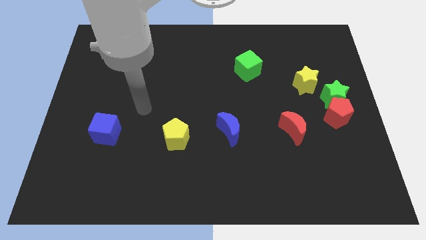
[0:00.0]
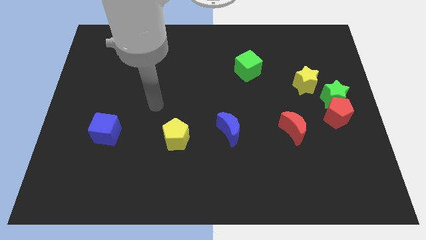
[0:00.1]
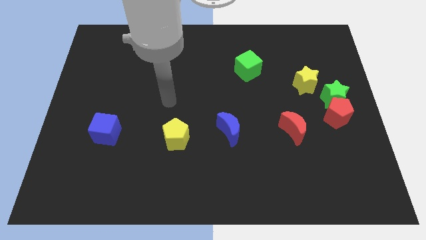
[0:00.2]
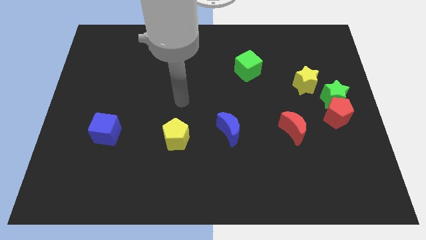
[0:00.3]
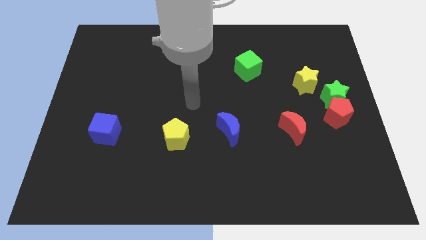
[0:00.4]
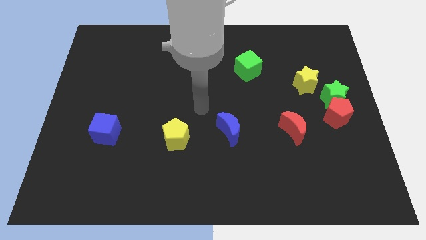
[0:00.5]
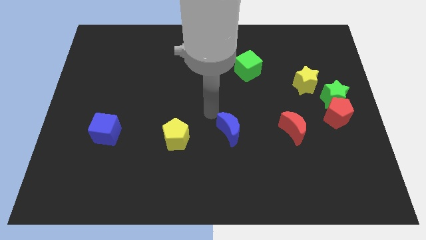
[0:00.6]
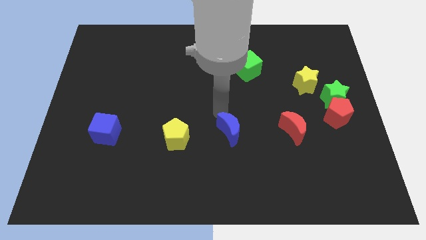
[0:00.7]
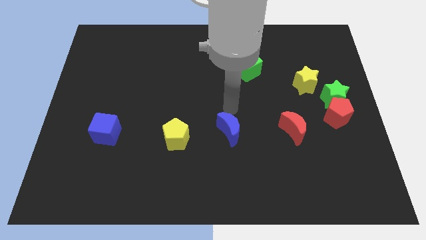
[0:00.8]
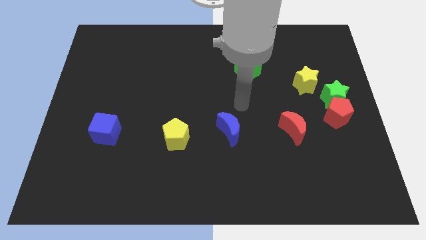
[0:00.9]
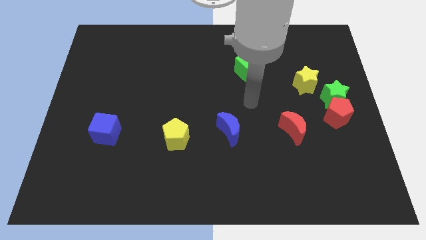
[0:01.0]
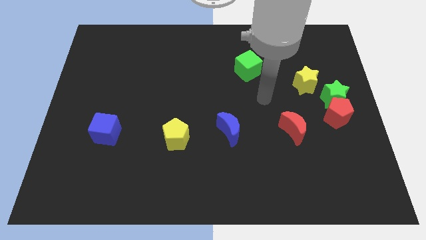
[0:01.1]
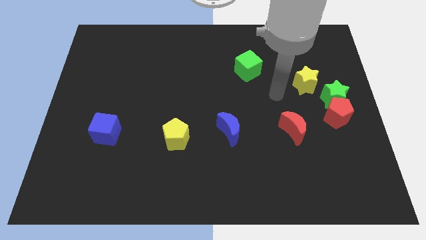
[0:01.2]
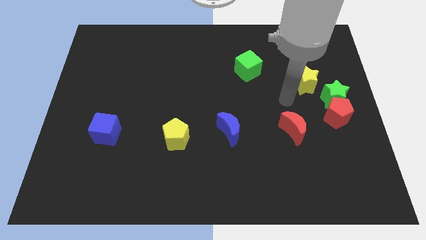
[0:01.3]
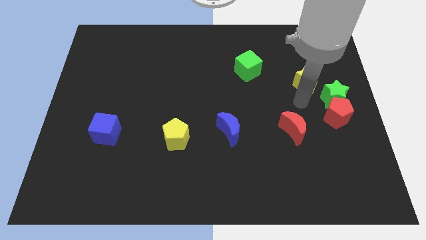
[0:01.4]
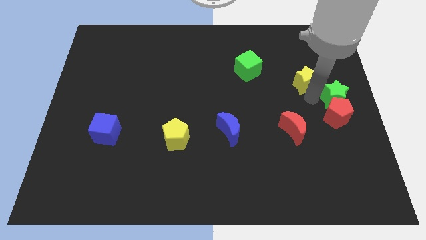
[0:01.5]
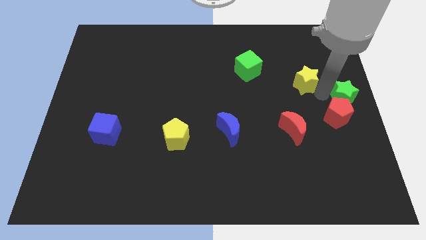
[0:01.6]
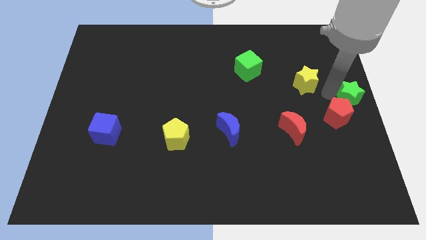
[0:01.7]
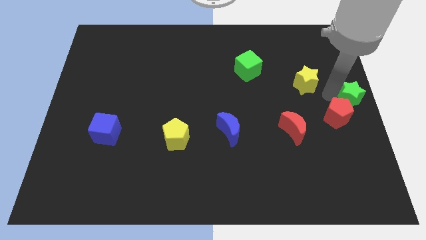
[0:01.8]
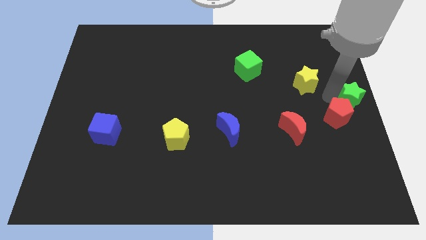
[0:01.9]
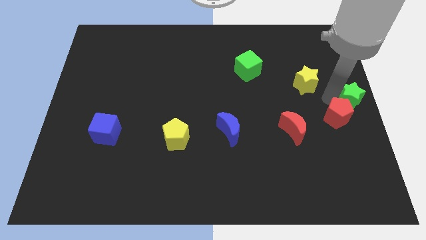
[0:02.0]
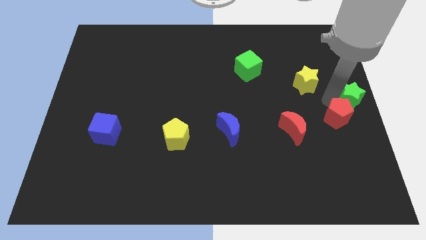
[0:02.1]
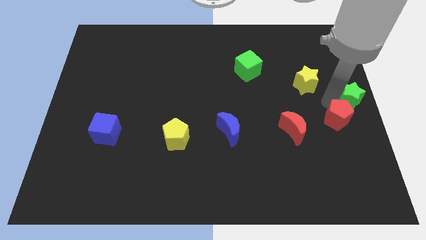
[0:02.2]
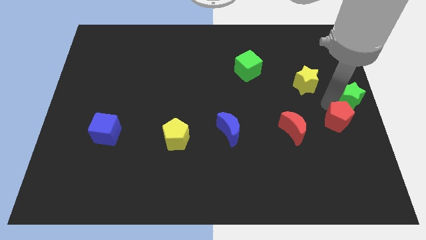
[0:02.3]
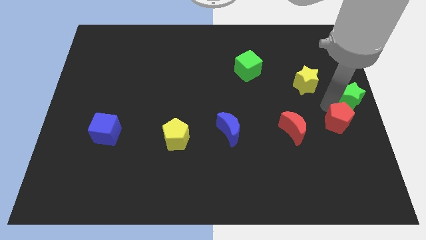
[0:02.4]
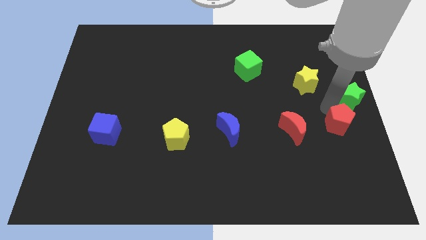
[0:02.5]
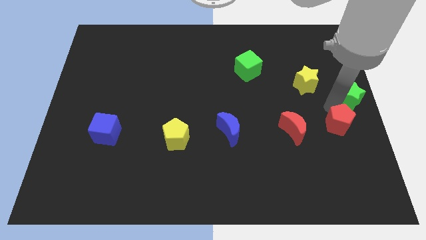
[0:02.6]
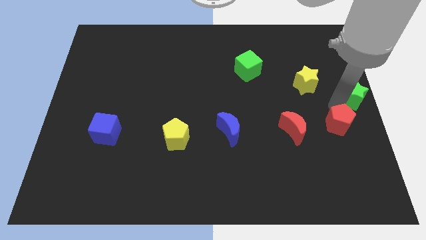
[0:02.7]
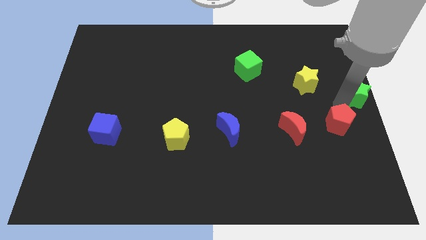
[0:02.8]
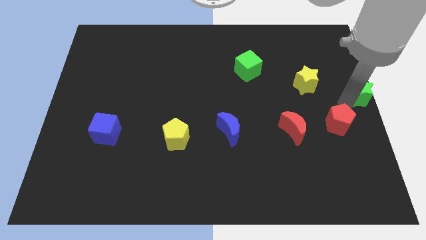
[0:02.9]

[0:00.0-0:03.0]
separate the red pentagon from the green star

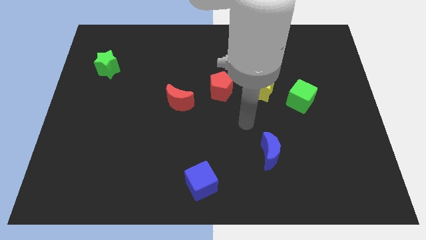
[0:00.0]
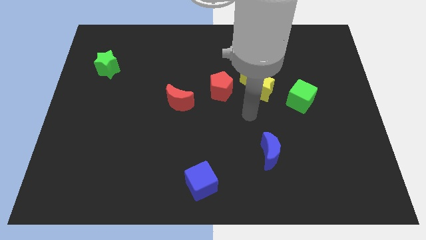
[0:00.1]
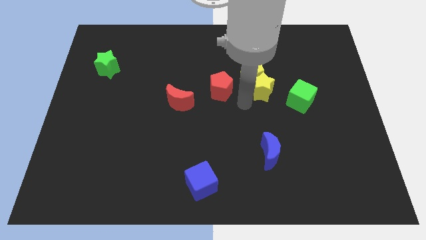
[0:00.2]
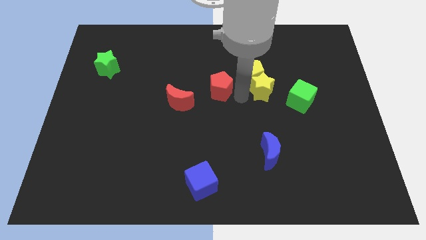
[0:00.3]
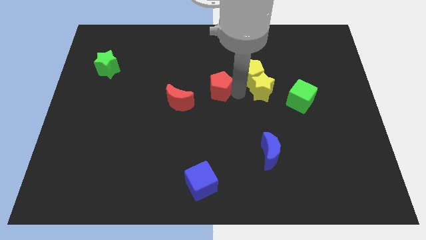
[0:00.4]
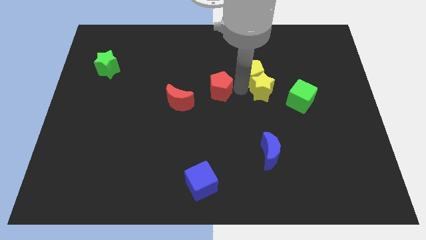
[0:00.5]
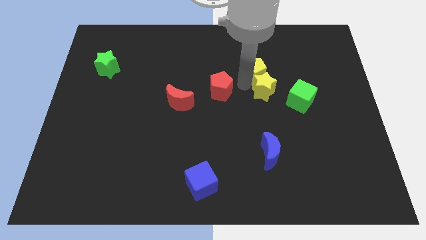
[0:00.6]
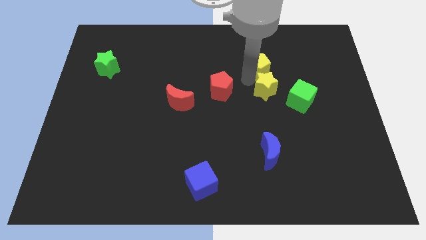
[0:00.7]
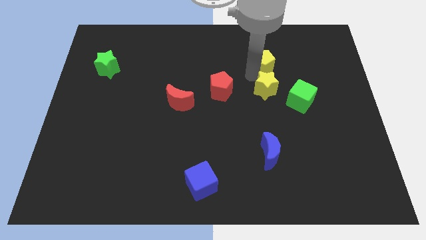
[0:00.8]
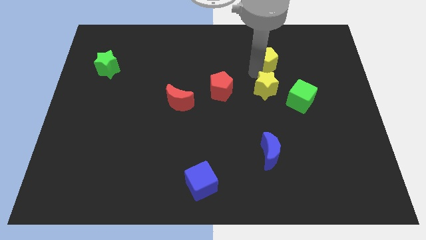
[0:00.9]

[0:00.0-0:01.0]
separate the yellow pentagon from the yellow star and red pentagon

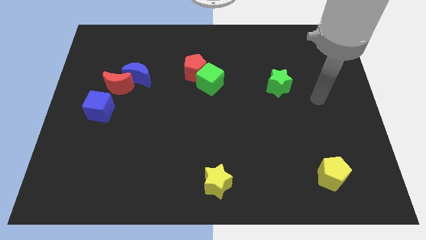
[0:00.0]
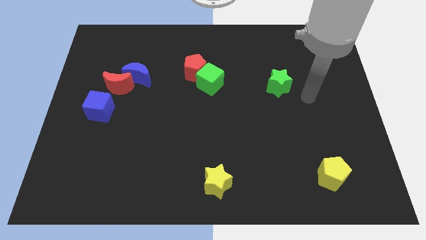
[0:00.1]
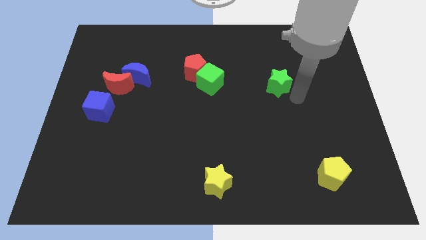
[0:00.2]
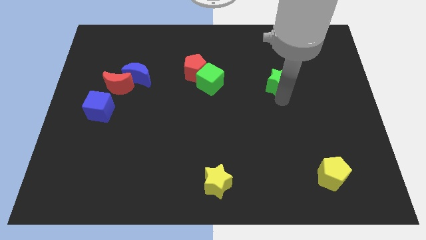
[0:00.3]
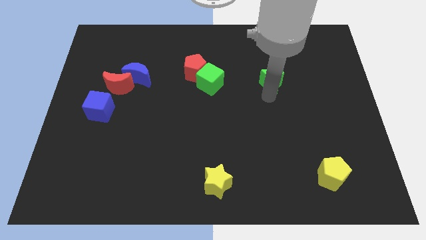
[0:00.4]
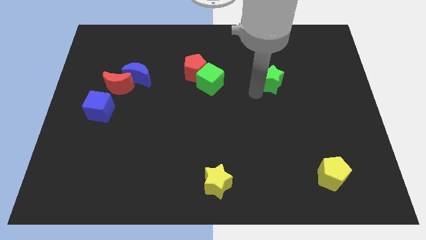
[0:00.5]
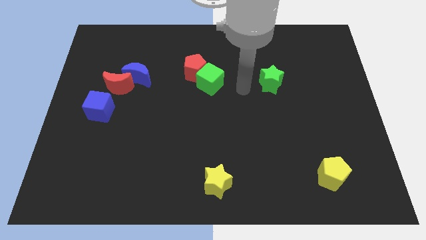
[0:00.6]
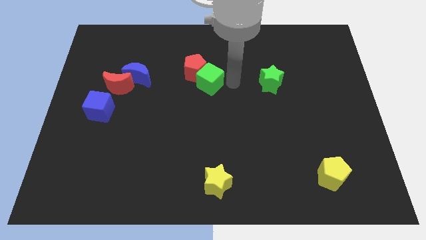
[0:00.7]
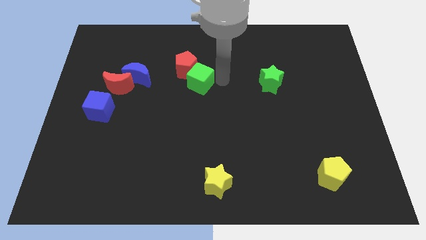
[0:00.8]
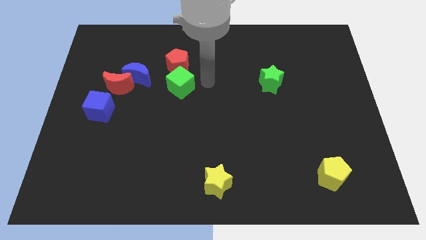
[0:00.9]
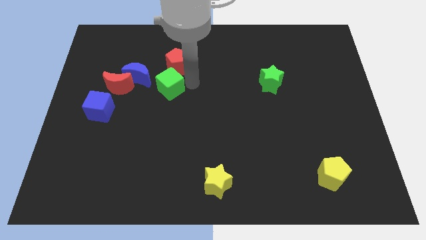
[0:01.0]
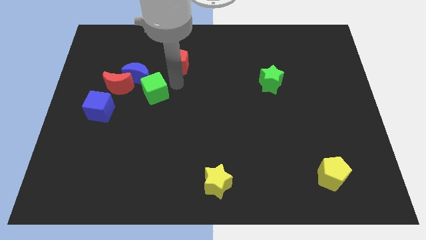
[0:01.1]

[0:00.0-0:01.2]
separate the red pentagon from the green cube

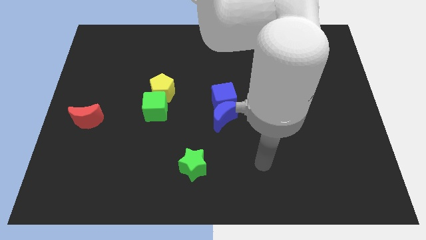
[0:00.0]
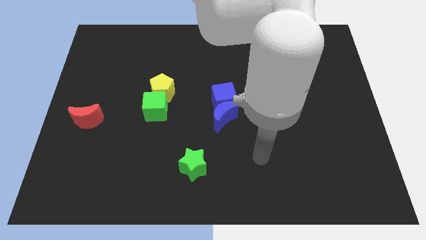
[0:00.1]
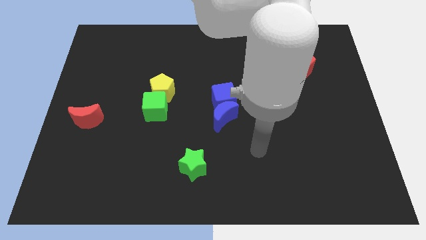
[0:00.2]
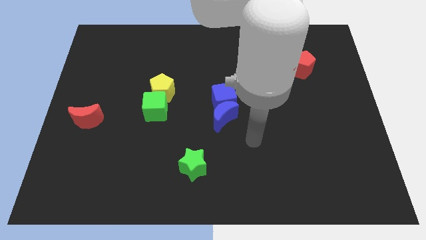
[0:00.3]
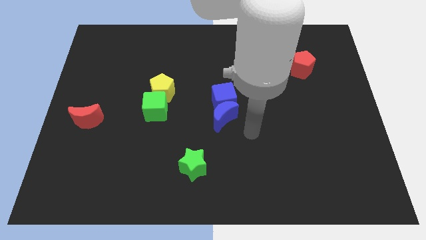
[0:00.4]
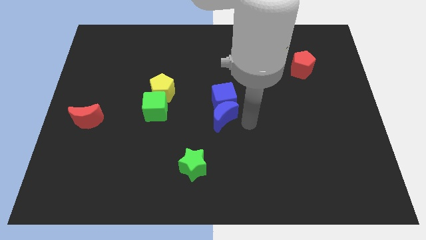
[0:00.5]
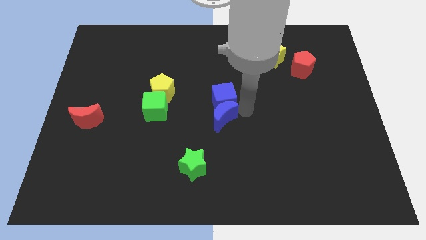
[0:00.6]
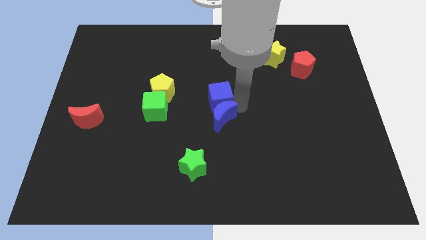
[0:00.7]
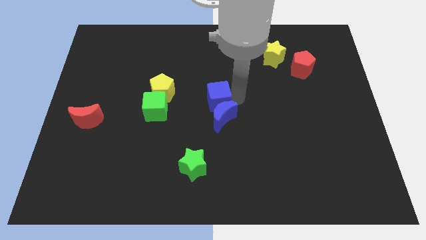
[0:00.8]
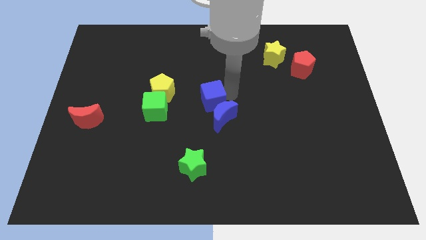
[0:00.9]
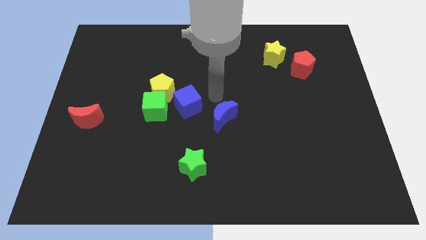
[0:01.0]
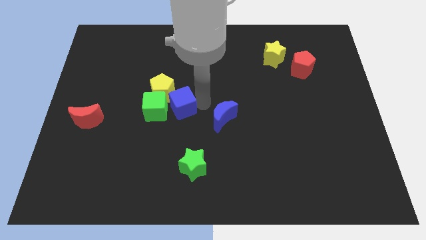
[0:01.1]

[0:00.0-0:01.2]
move the blue moon away from the blue cube

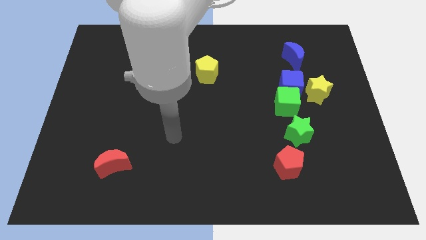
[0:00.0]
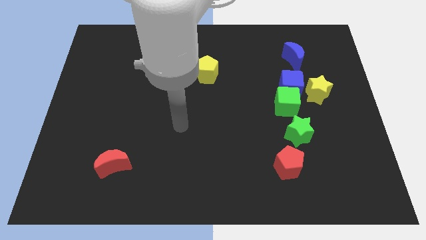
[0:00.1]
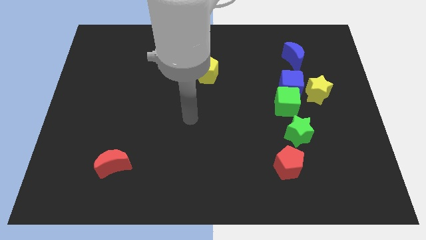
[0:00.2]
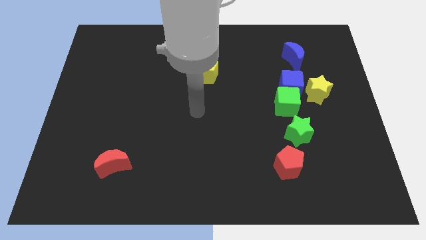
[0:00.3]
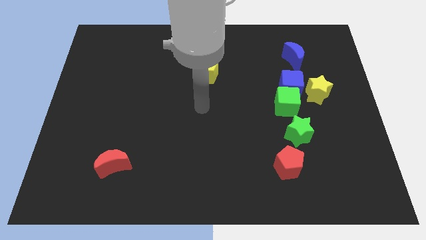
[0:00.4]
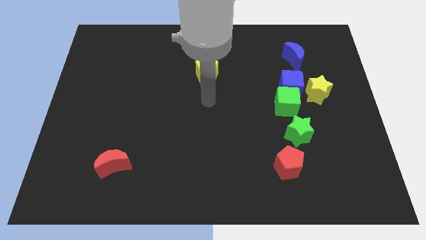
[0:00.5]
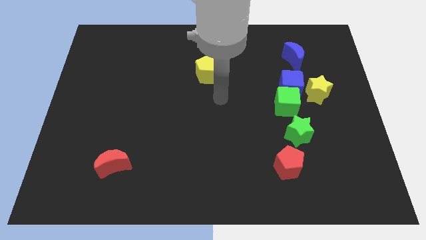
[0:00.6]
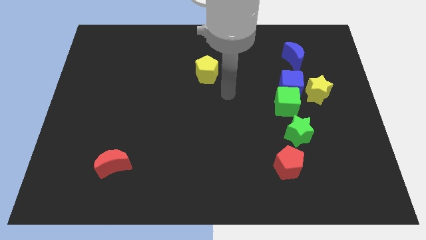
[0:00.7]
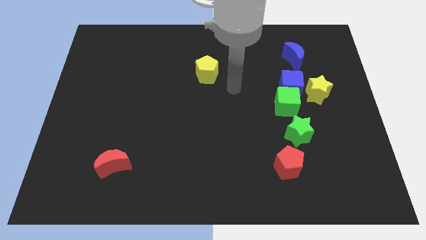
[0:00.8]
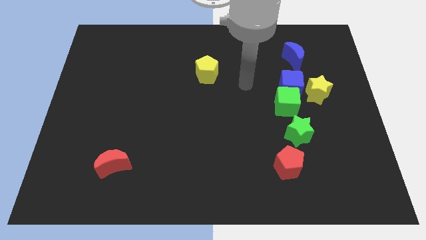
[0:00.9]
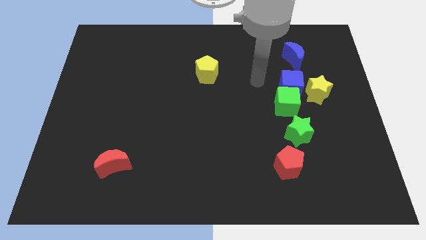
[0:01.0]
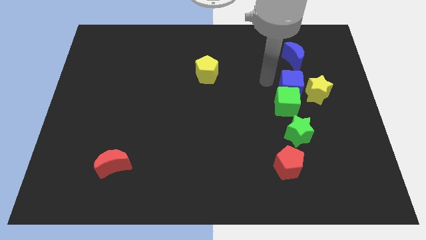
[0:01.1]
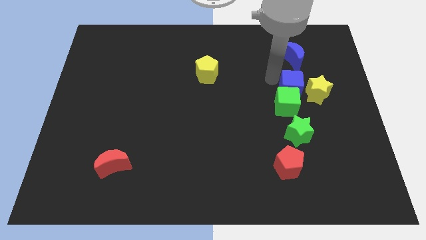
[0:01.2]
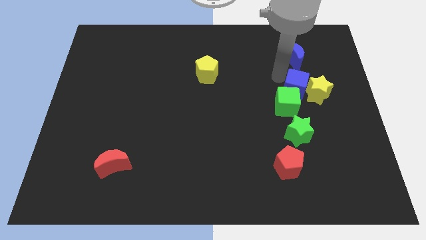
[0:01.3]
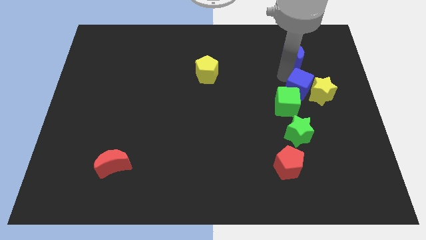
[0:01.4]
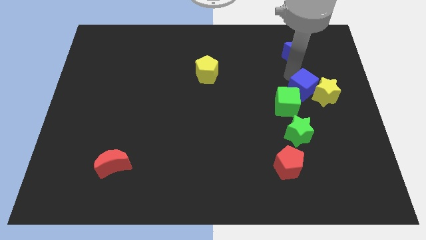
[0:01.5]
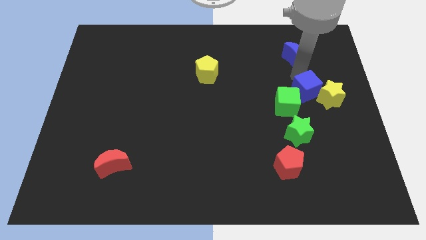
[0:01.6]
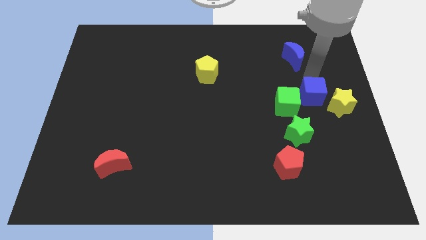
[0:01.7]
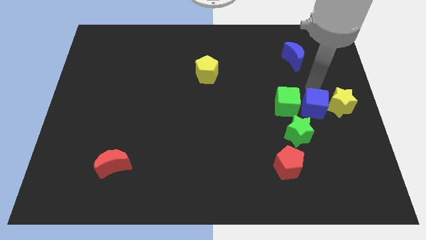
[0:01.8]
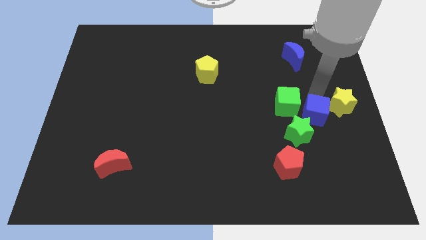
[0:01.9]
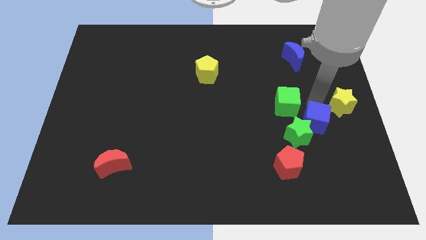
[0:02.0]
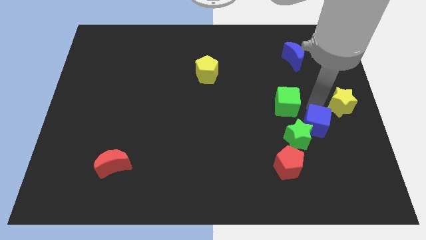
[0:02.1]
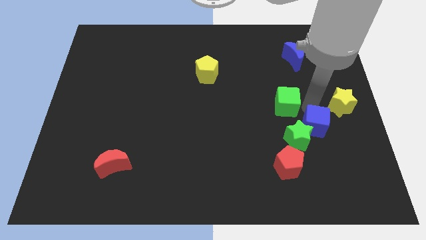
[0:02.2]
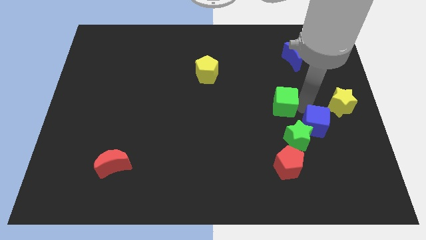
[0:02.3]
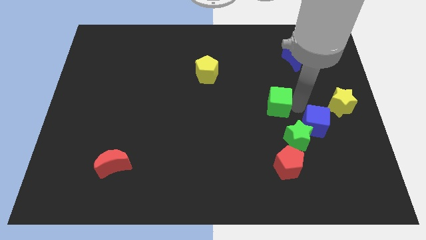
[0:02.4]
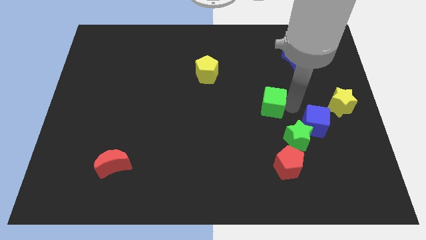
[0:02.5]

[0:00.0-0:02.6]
separate the green cube from the clump

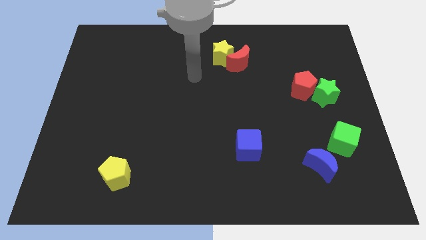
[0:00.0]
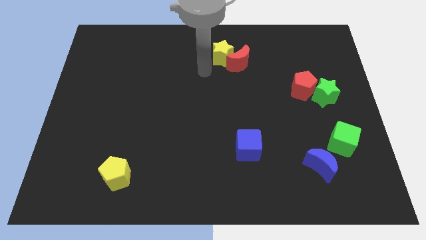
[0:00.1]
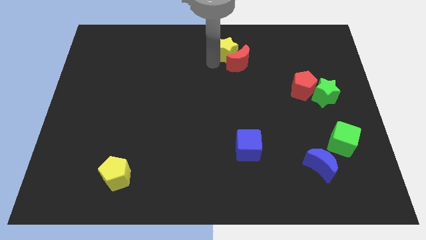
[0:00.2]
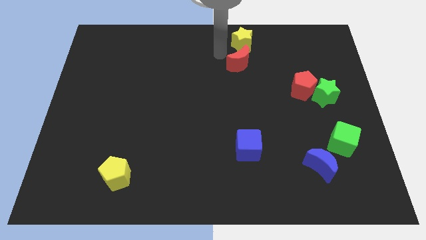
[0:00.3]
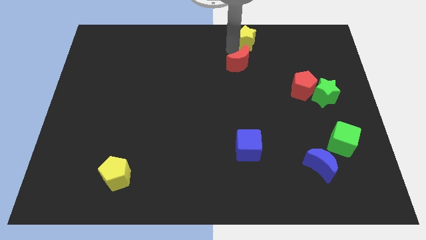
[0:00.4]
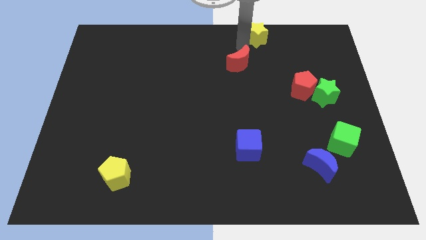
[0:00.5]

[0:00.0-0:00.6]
move the red moon away from the yellow star
